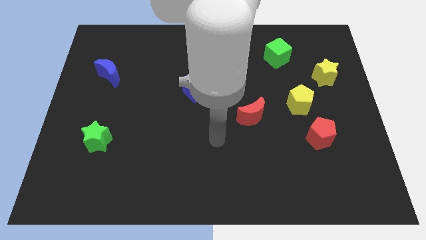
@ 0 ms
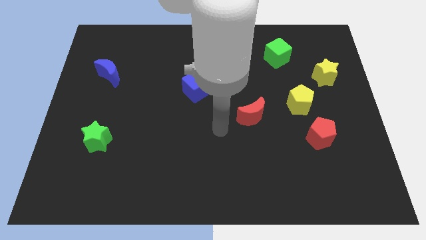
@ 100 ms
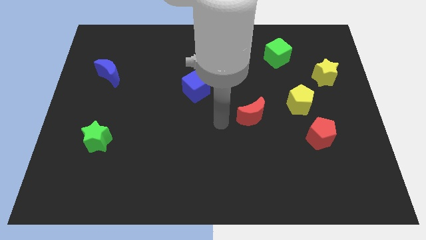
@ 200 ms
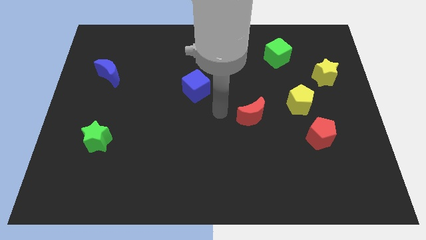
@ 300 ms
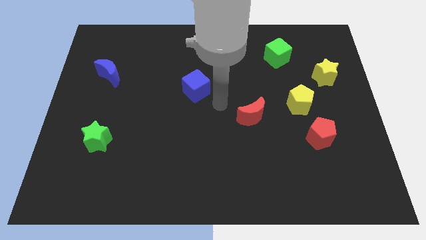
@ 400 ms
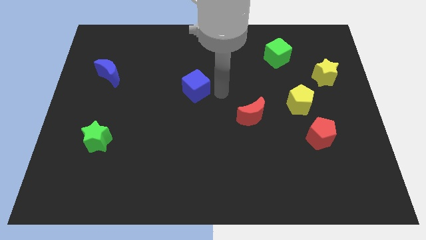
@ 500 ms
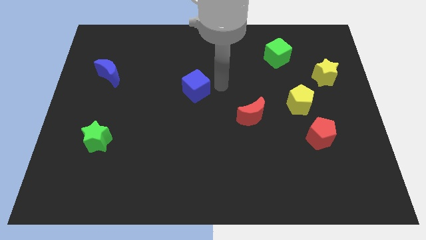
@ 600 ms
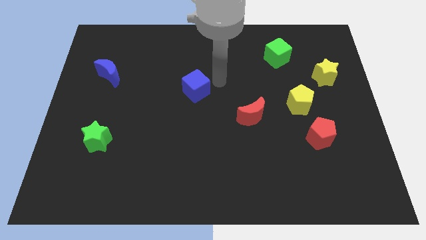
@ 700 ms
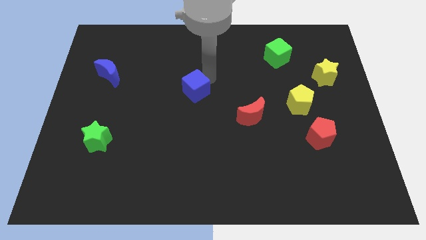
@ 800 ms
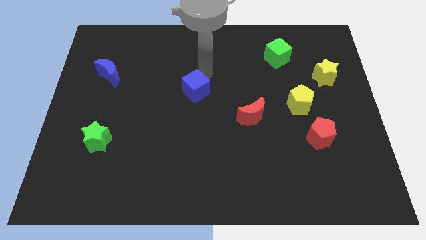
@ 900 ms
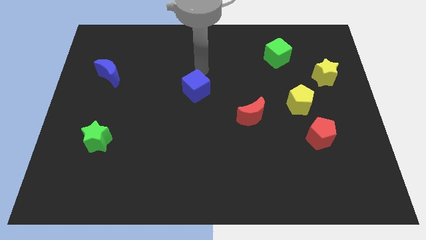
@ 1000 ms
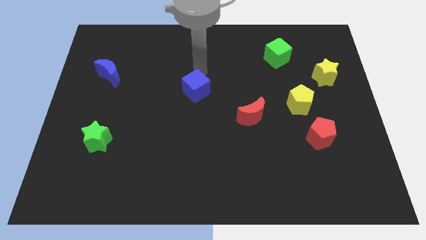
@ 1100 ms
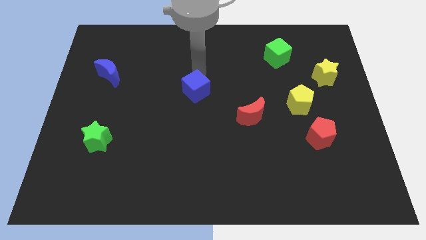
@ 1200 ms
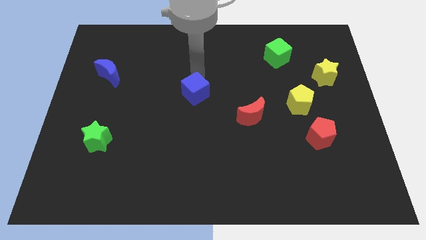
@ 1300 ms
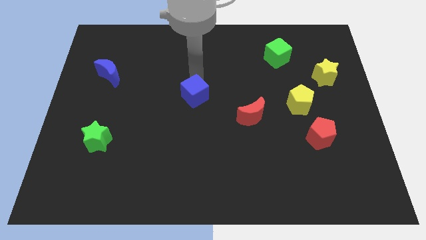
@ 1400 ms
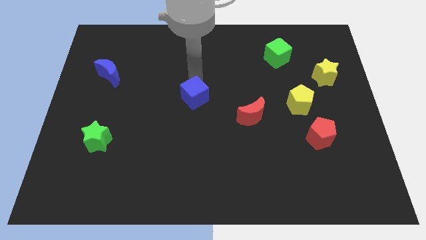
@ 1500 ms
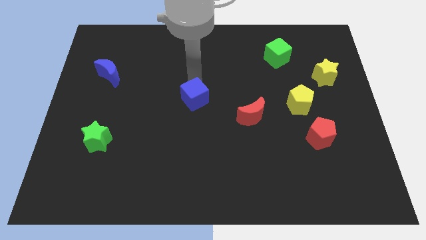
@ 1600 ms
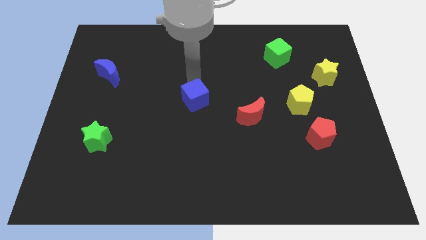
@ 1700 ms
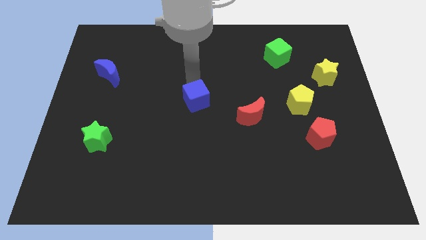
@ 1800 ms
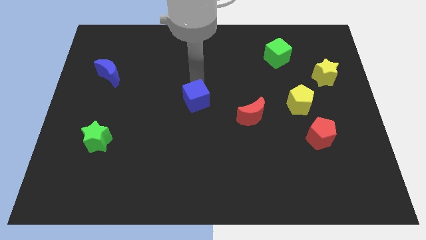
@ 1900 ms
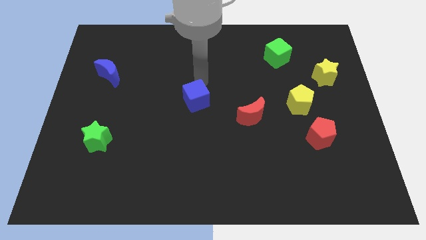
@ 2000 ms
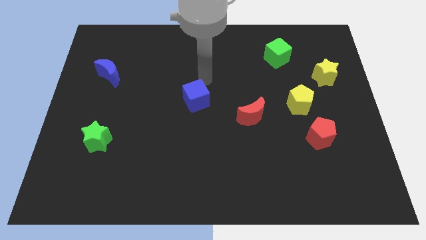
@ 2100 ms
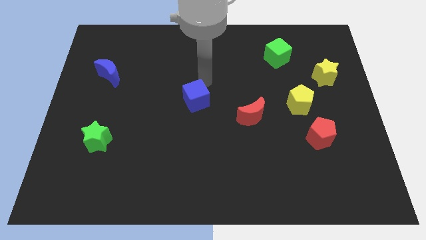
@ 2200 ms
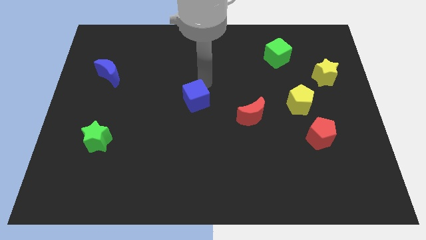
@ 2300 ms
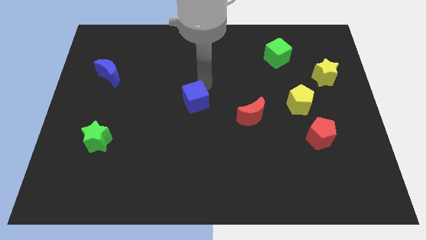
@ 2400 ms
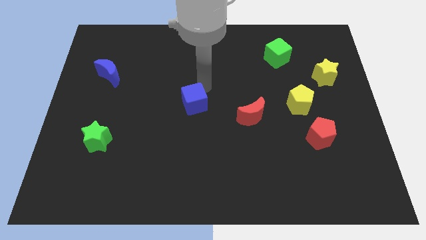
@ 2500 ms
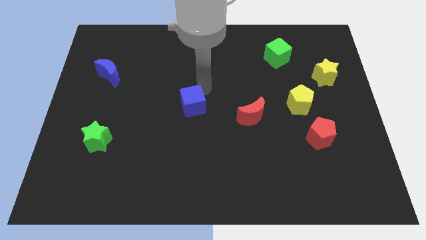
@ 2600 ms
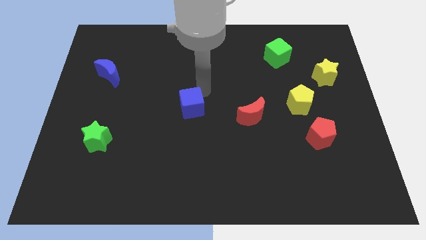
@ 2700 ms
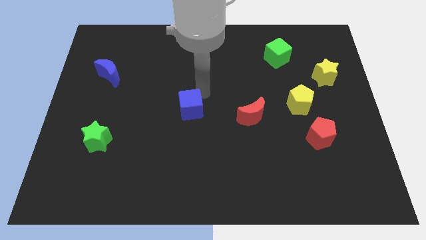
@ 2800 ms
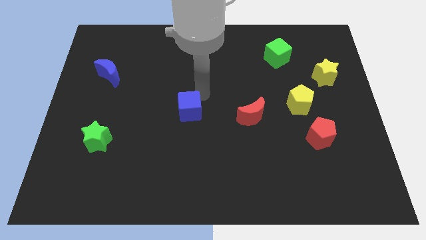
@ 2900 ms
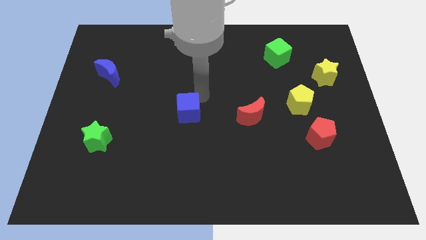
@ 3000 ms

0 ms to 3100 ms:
move the blue cube downwards a little bit

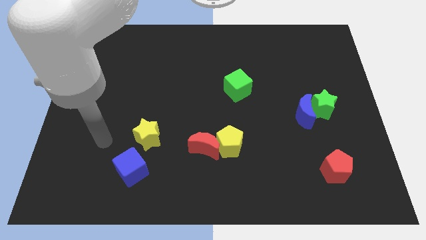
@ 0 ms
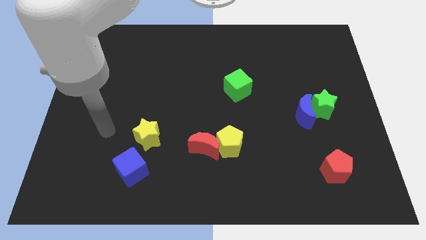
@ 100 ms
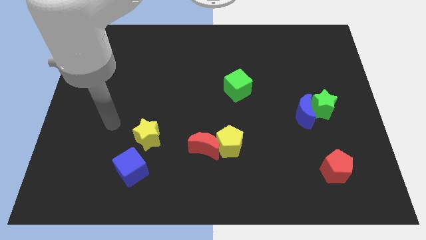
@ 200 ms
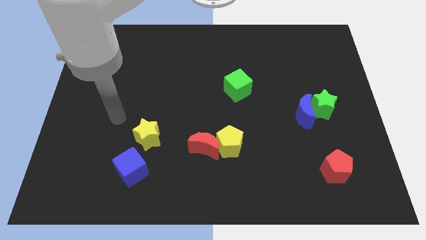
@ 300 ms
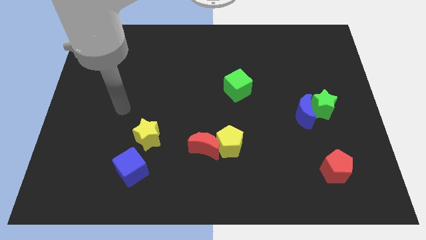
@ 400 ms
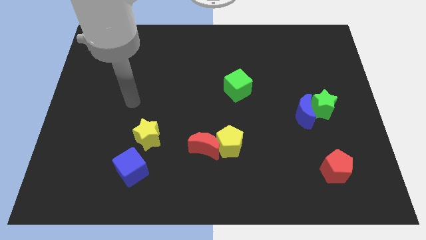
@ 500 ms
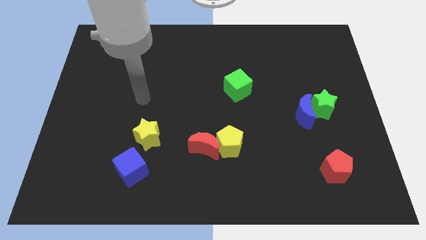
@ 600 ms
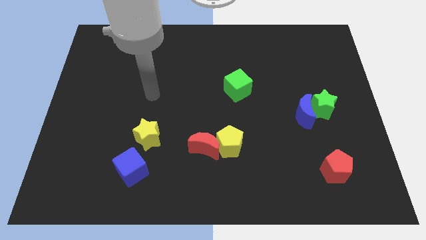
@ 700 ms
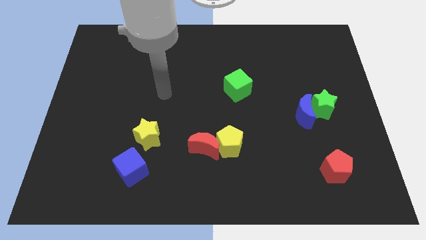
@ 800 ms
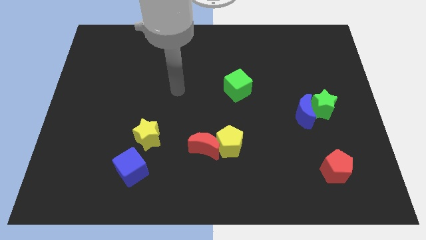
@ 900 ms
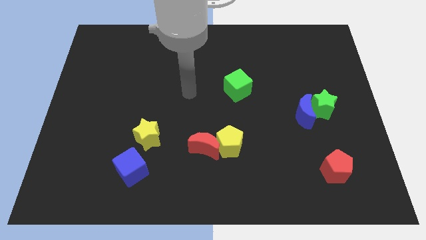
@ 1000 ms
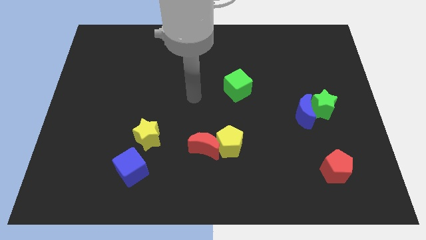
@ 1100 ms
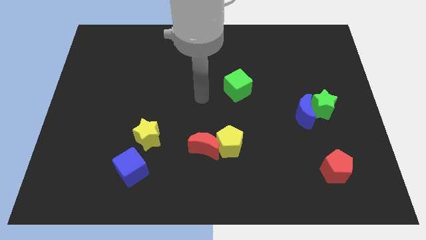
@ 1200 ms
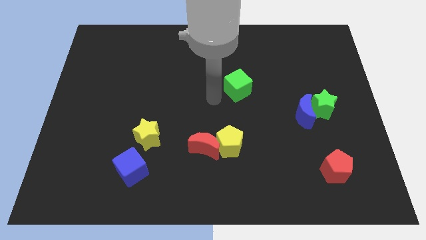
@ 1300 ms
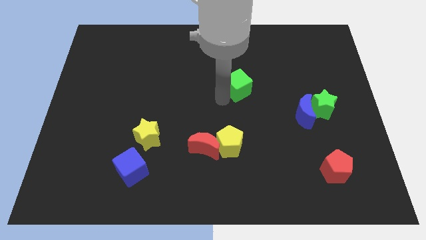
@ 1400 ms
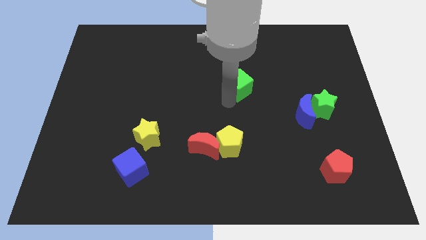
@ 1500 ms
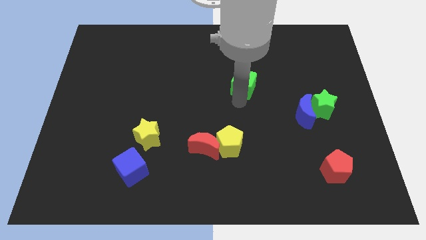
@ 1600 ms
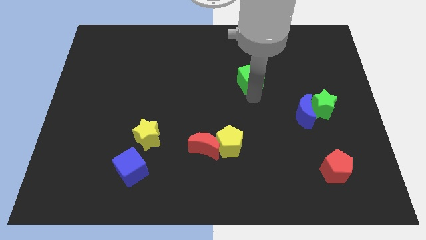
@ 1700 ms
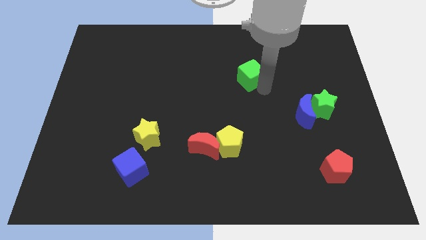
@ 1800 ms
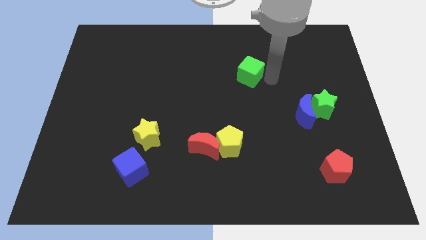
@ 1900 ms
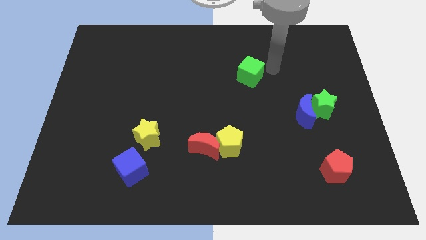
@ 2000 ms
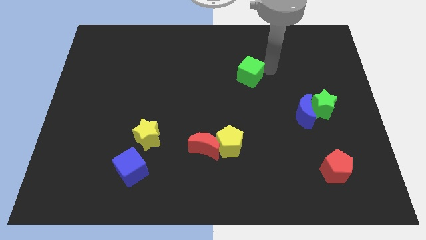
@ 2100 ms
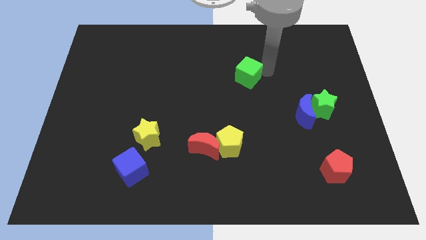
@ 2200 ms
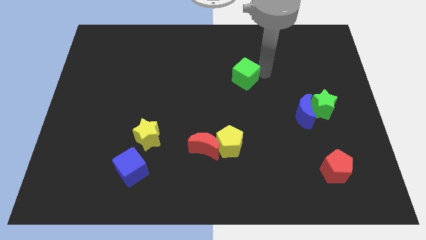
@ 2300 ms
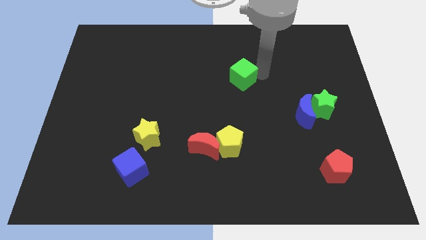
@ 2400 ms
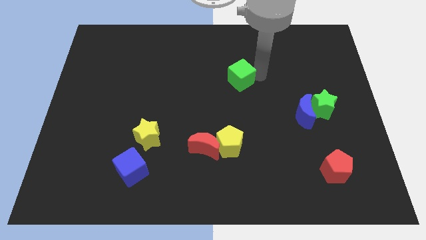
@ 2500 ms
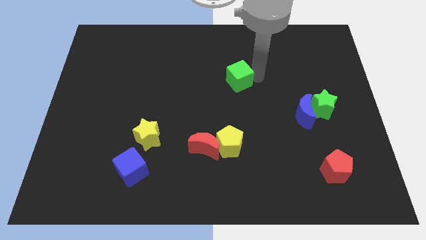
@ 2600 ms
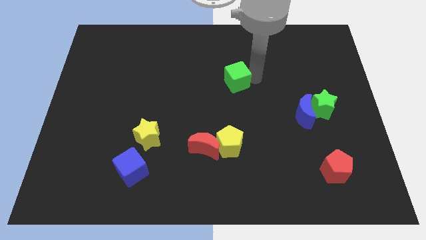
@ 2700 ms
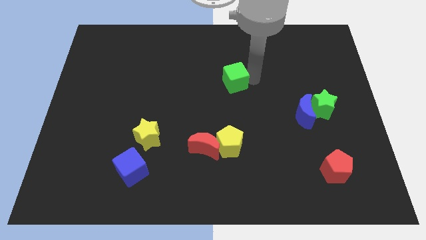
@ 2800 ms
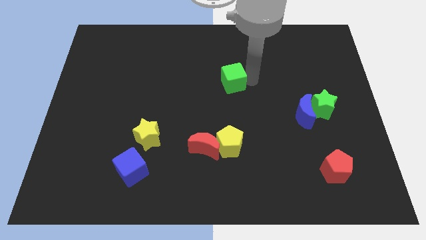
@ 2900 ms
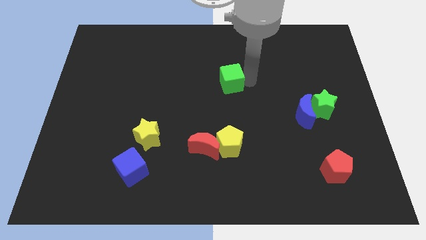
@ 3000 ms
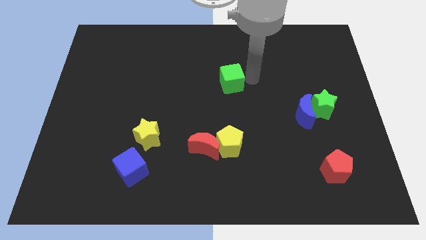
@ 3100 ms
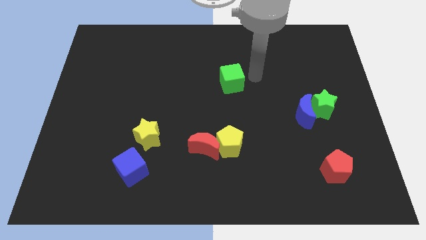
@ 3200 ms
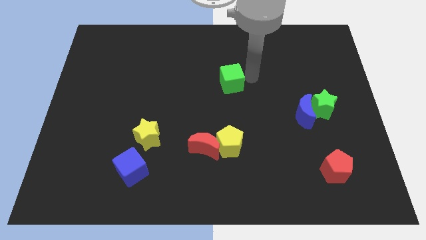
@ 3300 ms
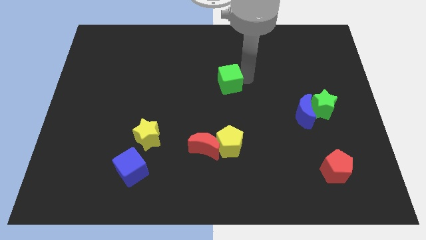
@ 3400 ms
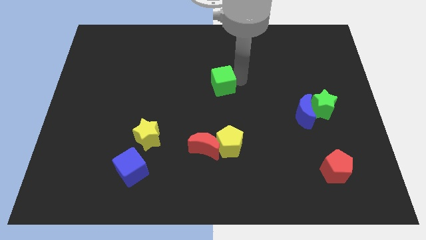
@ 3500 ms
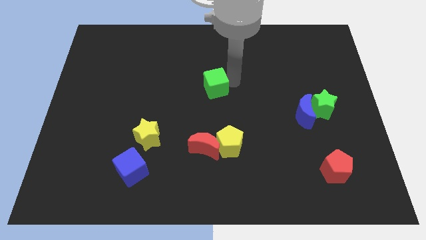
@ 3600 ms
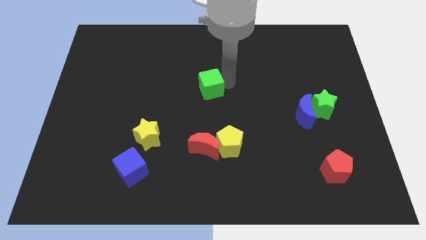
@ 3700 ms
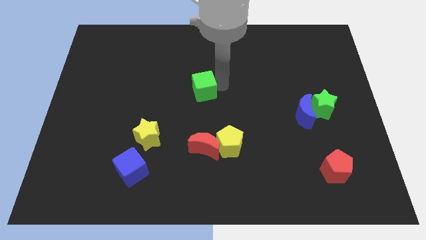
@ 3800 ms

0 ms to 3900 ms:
slightly move the green cube to the left

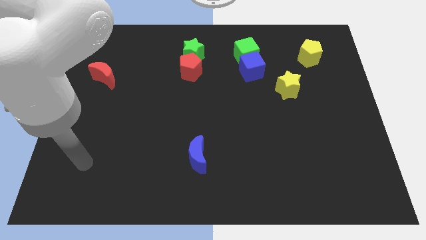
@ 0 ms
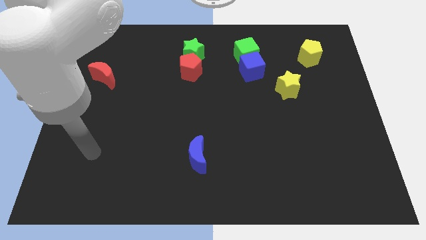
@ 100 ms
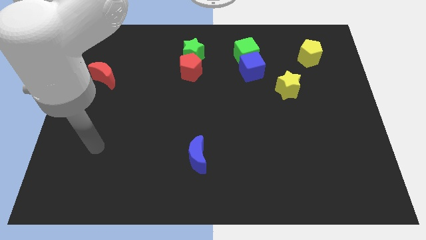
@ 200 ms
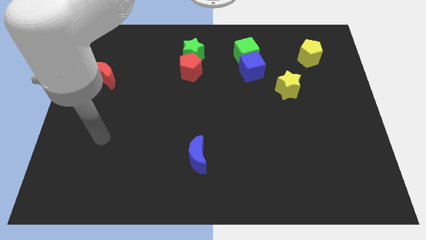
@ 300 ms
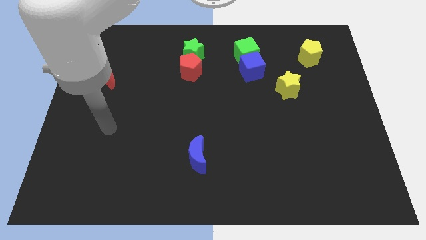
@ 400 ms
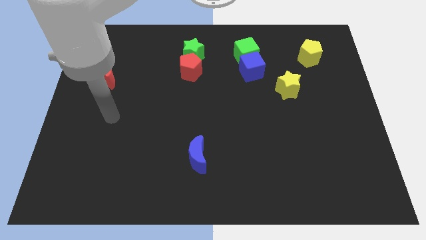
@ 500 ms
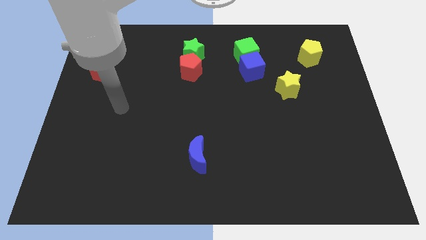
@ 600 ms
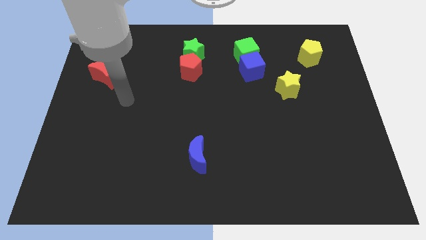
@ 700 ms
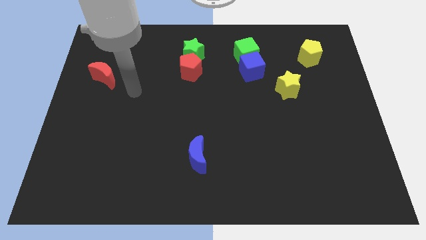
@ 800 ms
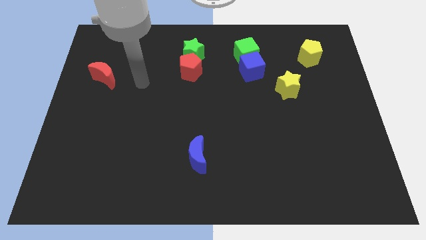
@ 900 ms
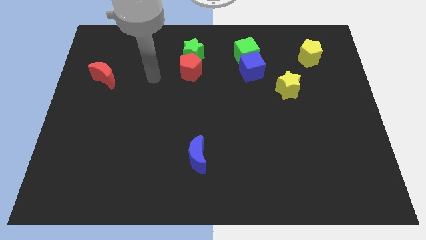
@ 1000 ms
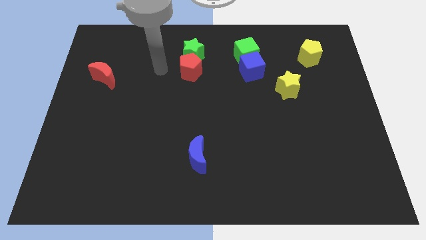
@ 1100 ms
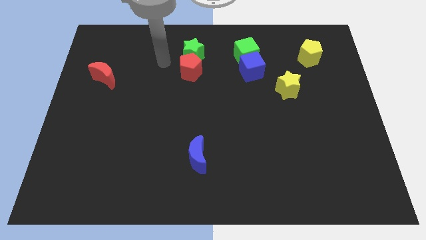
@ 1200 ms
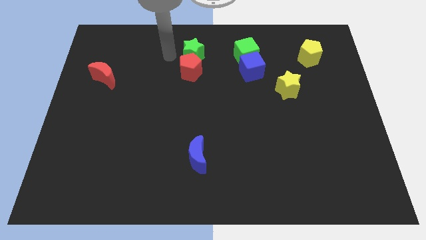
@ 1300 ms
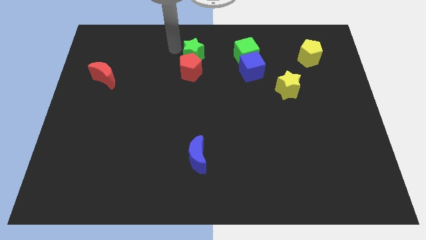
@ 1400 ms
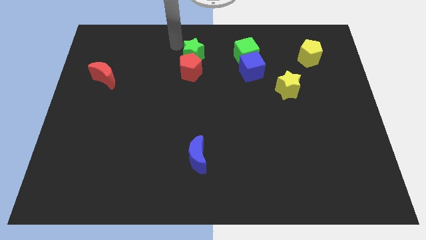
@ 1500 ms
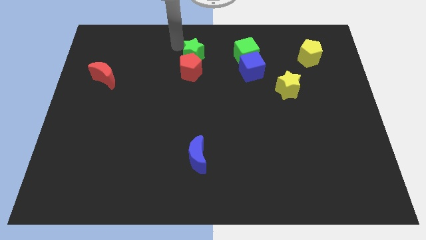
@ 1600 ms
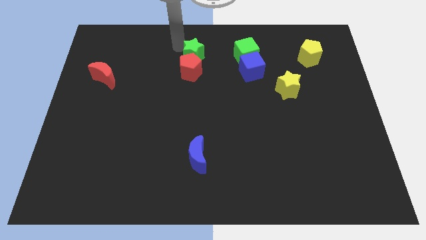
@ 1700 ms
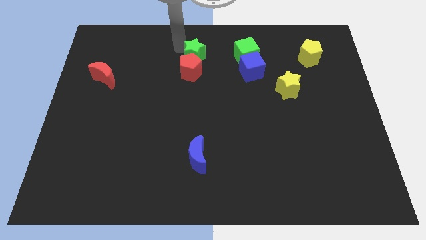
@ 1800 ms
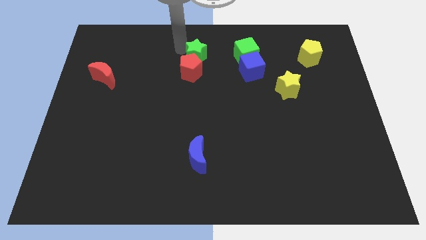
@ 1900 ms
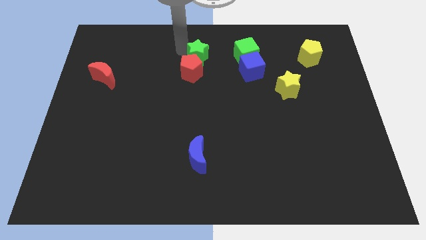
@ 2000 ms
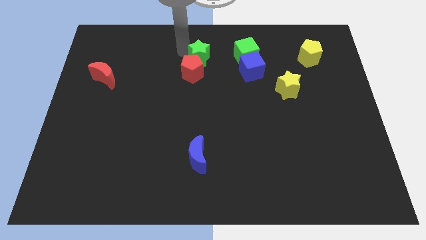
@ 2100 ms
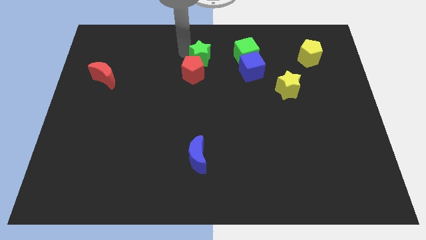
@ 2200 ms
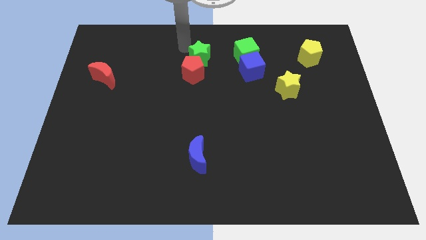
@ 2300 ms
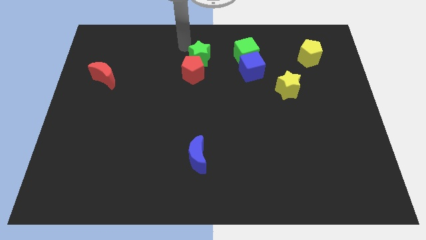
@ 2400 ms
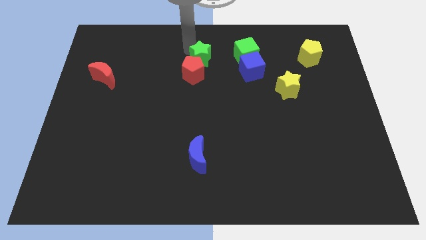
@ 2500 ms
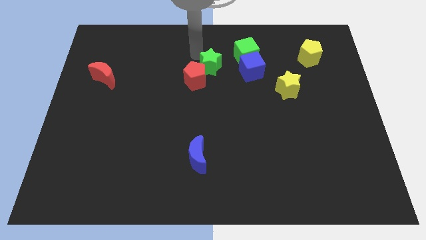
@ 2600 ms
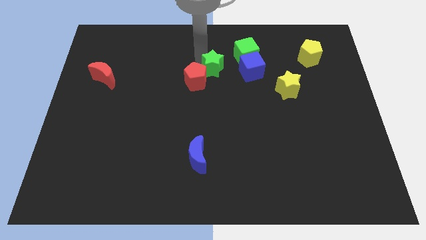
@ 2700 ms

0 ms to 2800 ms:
slightly push the green star downwards and then right
